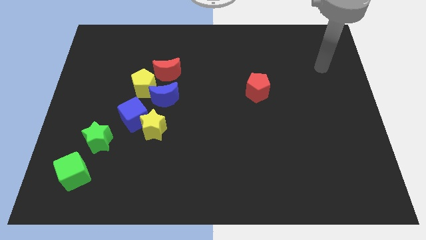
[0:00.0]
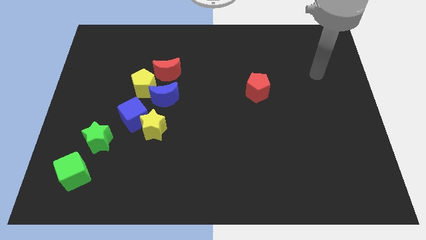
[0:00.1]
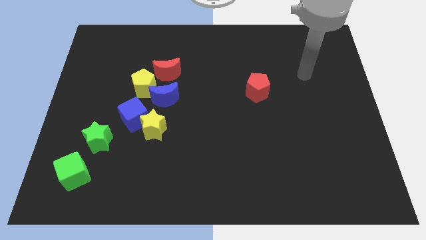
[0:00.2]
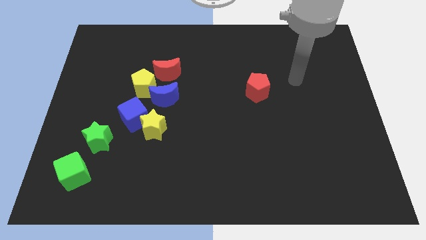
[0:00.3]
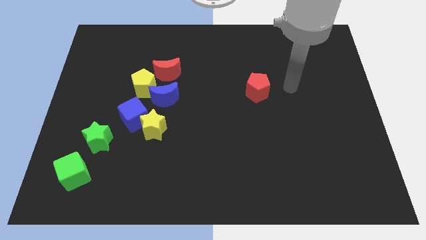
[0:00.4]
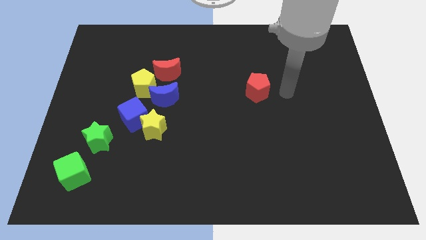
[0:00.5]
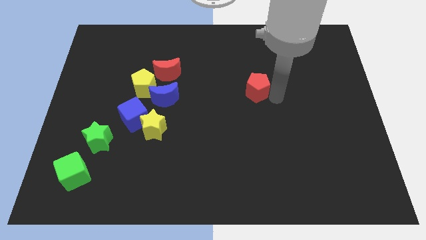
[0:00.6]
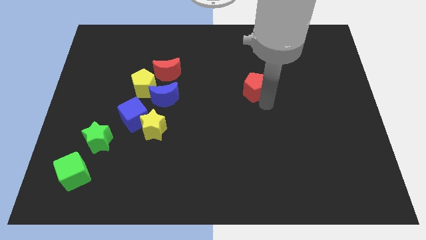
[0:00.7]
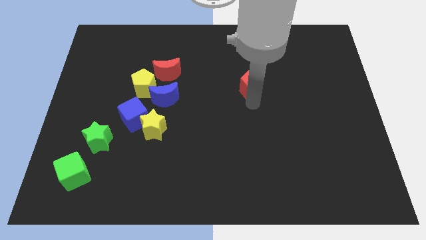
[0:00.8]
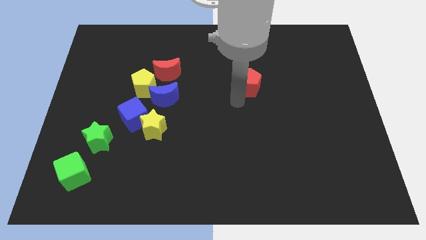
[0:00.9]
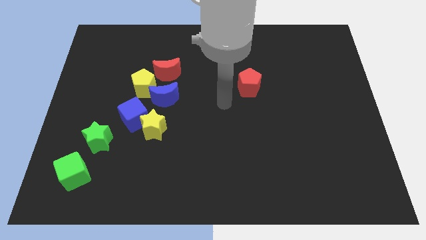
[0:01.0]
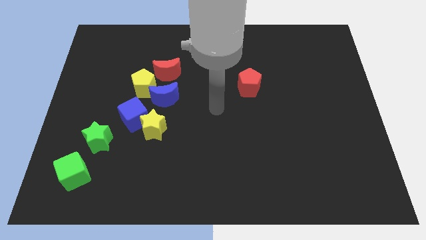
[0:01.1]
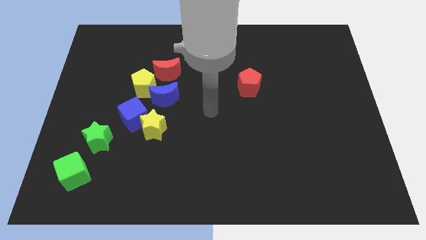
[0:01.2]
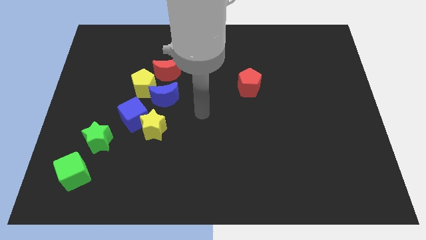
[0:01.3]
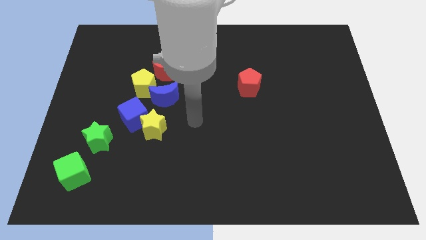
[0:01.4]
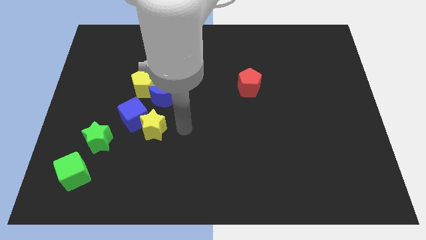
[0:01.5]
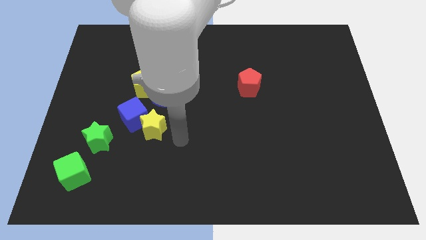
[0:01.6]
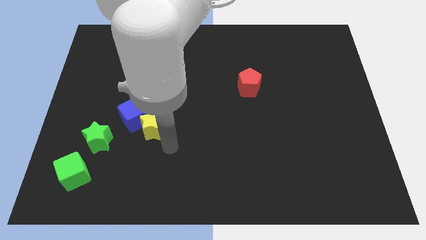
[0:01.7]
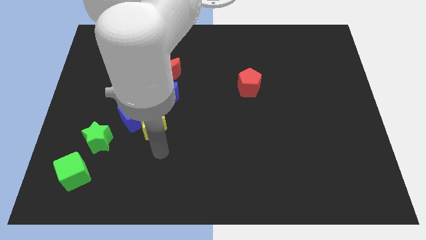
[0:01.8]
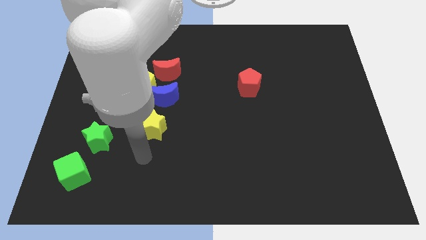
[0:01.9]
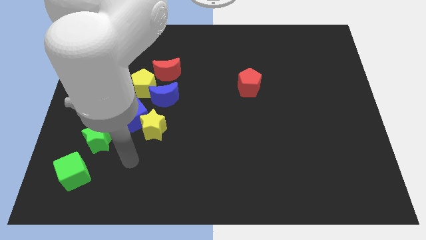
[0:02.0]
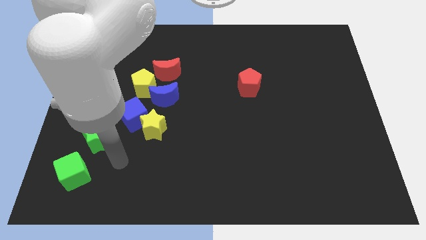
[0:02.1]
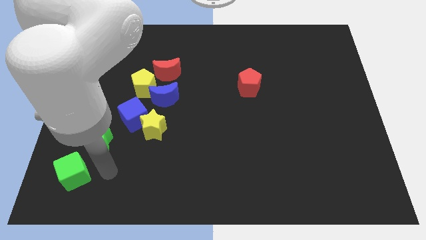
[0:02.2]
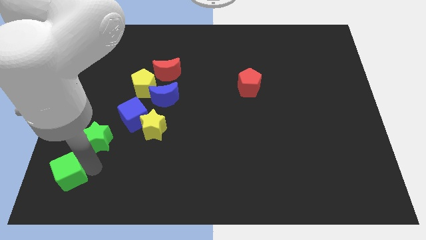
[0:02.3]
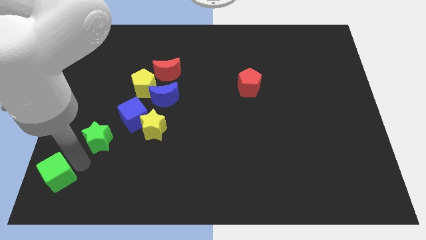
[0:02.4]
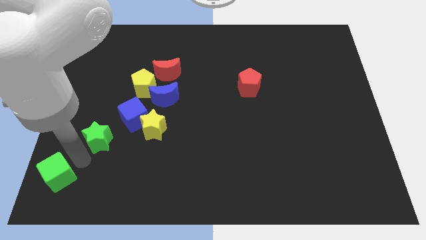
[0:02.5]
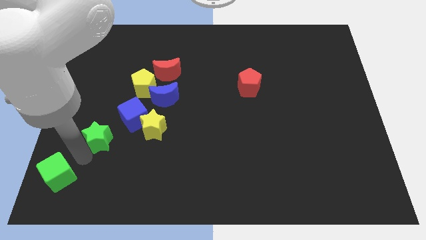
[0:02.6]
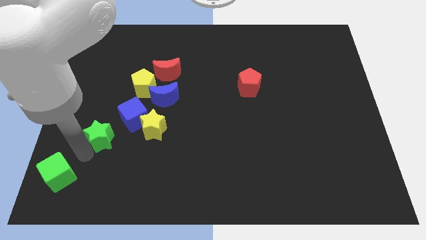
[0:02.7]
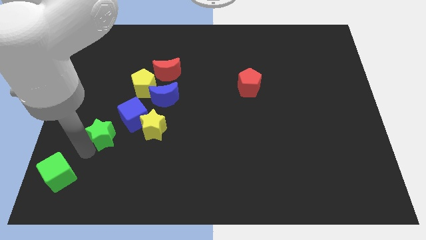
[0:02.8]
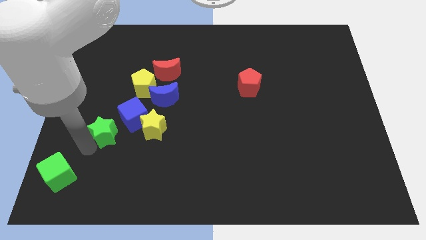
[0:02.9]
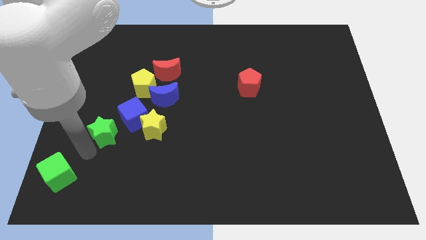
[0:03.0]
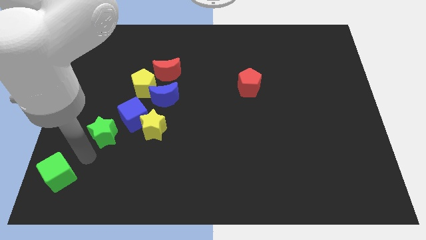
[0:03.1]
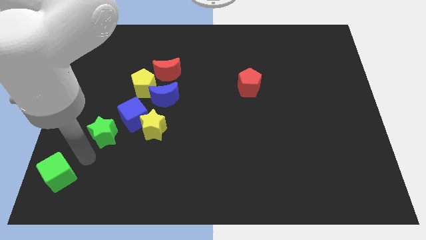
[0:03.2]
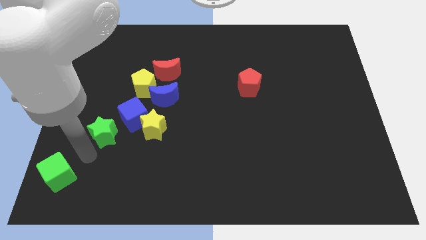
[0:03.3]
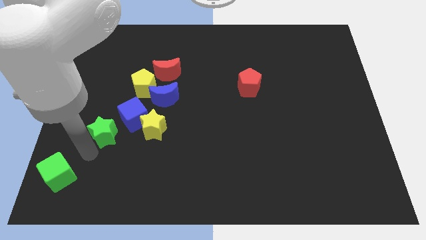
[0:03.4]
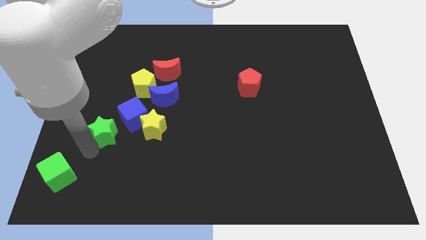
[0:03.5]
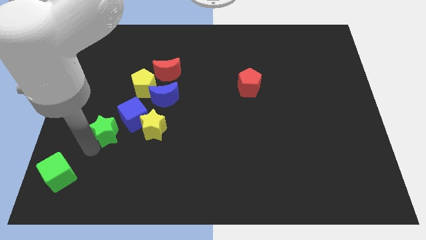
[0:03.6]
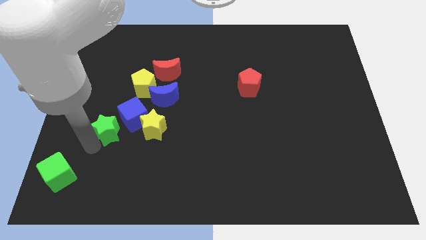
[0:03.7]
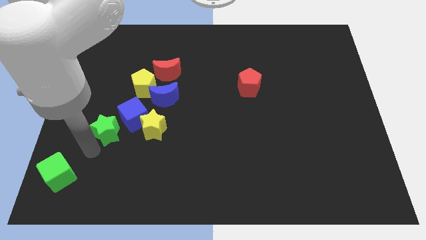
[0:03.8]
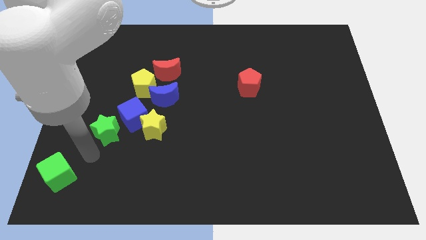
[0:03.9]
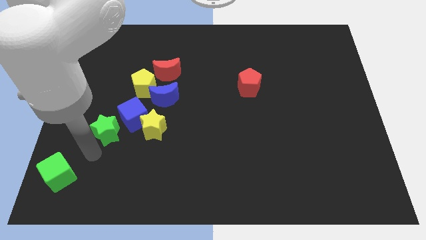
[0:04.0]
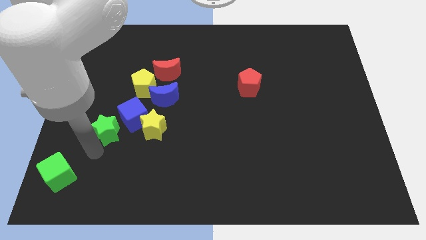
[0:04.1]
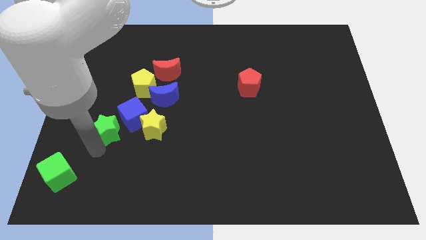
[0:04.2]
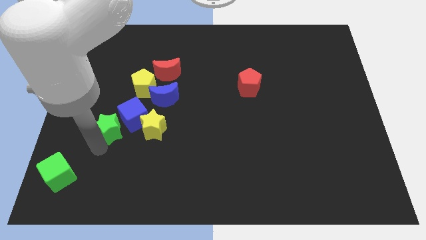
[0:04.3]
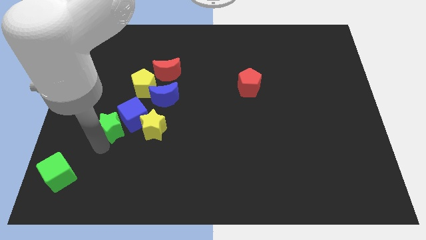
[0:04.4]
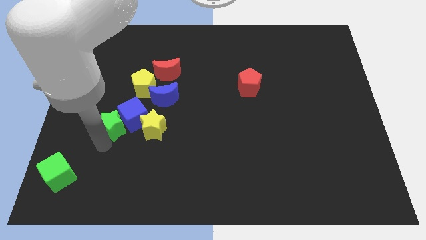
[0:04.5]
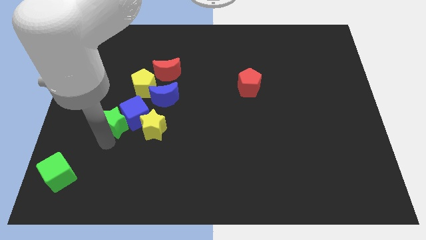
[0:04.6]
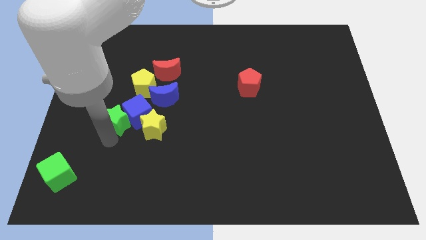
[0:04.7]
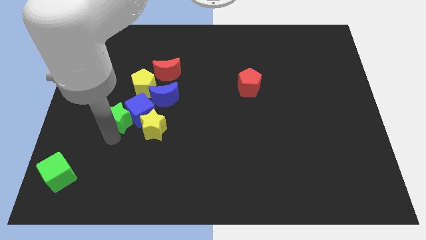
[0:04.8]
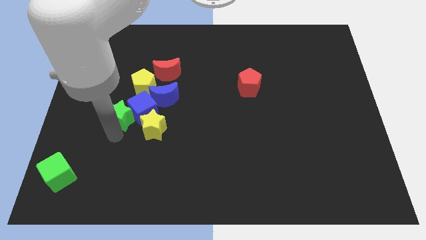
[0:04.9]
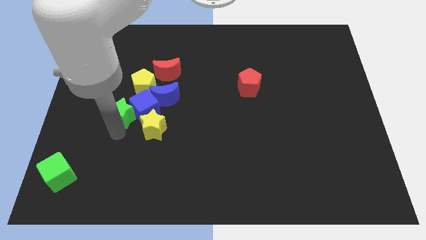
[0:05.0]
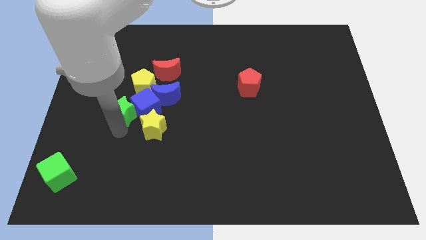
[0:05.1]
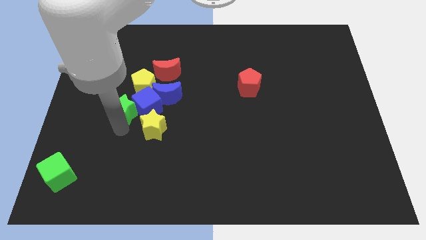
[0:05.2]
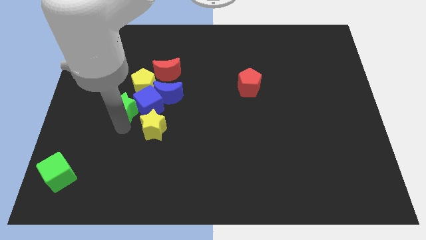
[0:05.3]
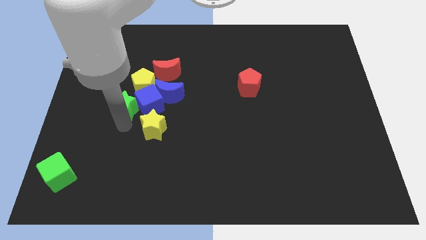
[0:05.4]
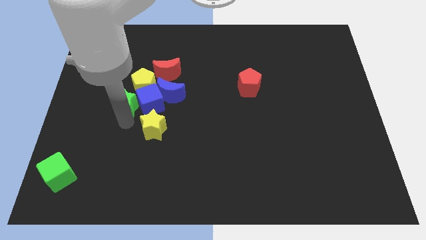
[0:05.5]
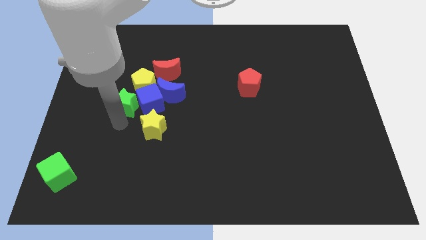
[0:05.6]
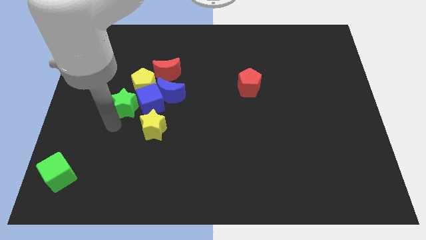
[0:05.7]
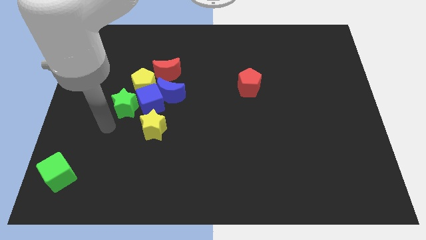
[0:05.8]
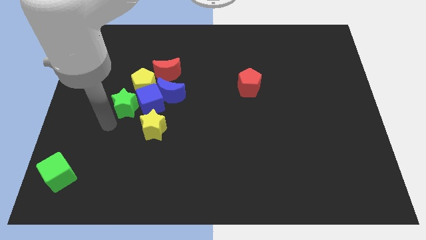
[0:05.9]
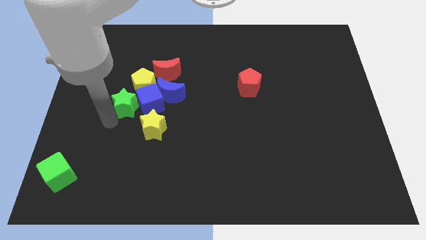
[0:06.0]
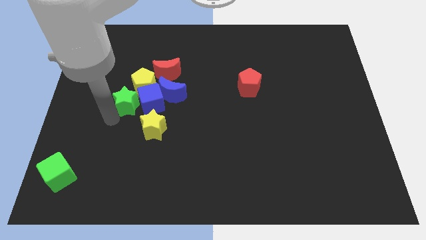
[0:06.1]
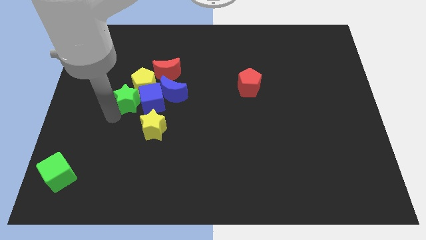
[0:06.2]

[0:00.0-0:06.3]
put the green star next to the yellow pentagon

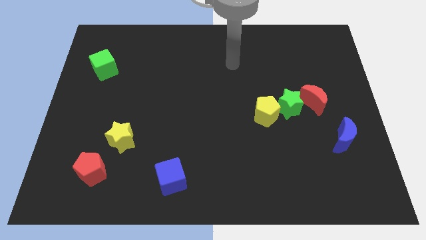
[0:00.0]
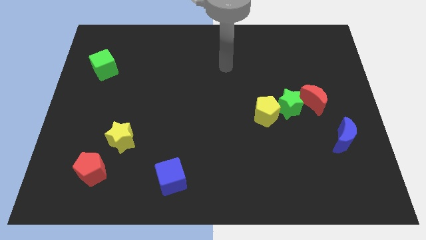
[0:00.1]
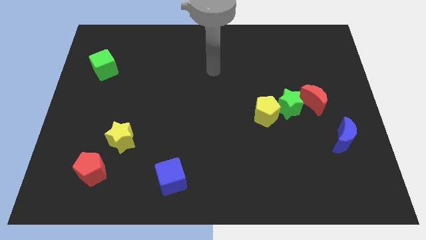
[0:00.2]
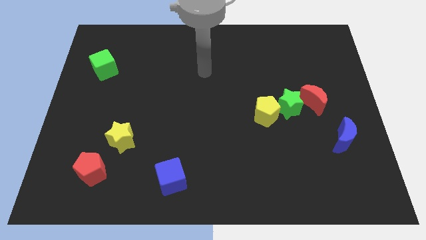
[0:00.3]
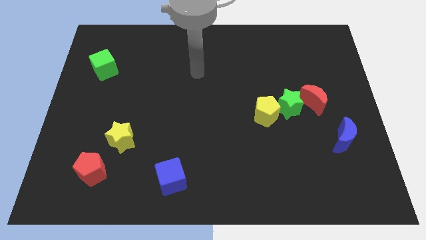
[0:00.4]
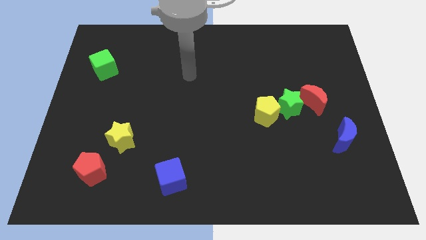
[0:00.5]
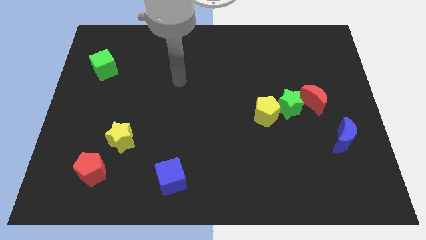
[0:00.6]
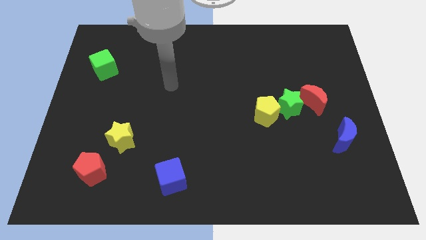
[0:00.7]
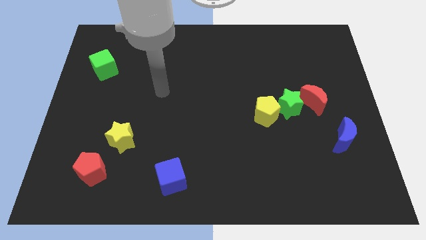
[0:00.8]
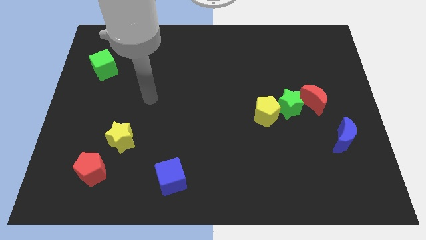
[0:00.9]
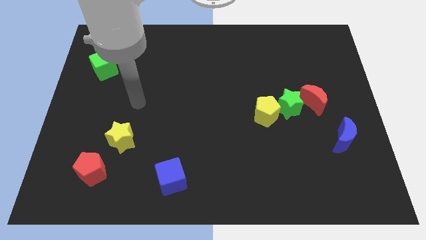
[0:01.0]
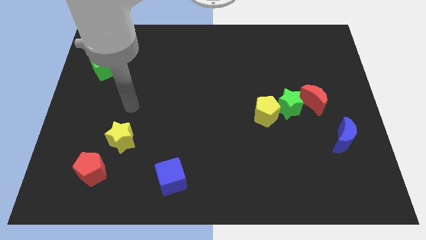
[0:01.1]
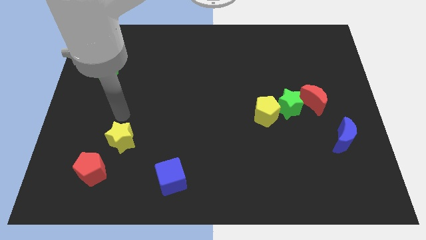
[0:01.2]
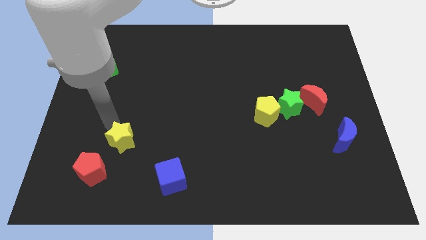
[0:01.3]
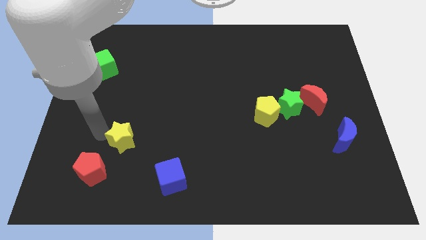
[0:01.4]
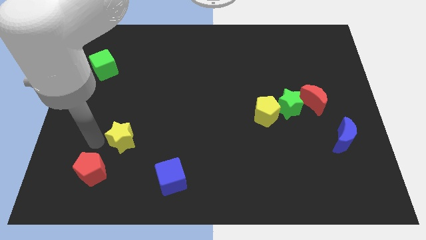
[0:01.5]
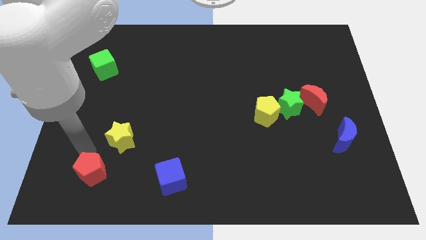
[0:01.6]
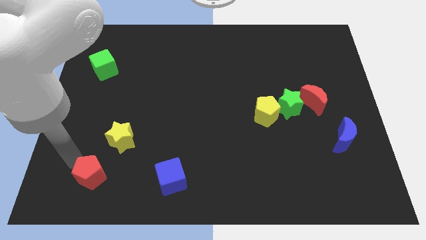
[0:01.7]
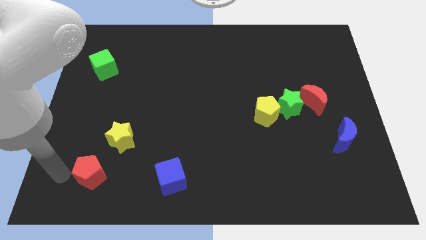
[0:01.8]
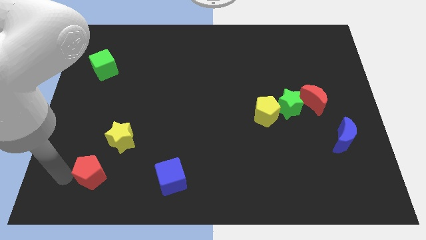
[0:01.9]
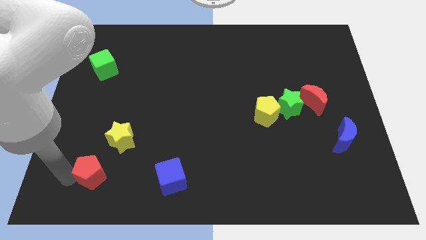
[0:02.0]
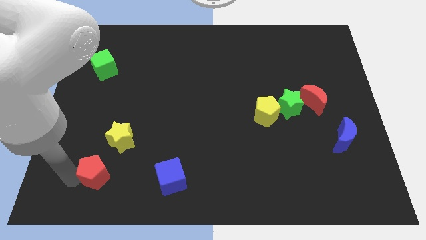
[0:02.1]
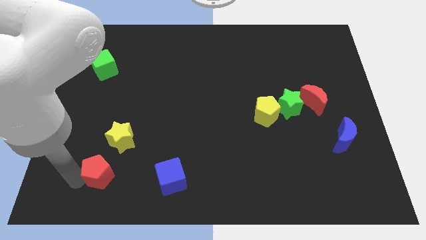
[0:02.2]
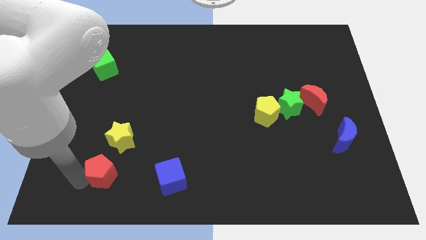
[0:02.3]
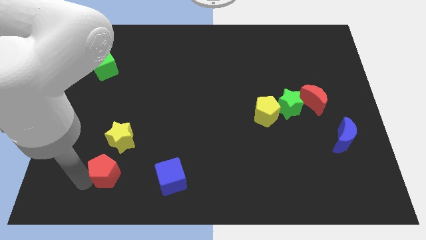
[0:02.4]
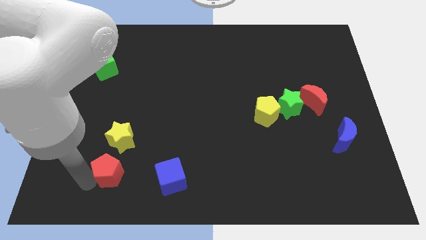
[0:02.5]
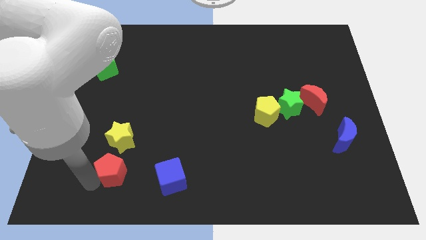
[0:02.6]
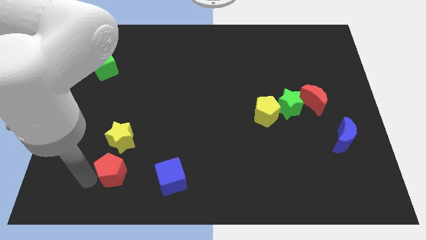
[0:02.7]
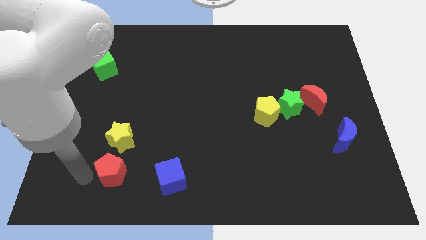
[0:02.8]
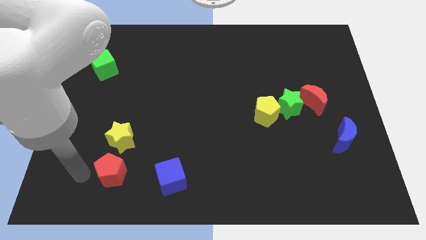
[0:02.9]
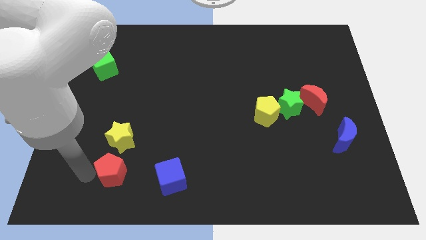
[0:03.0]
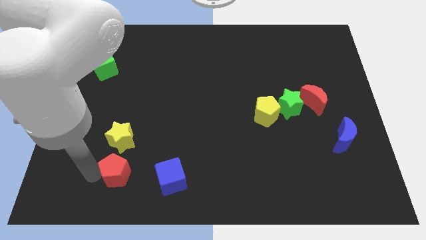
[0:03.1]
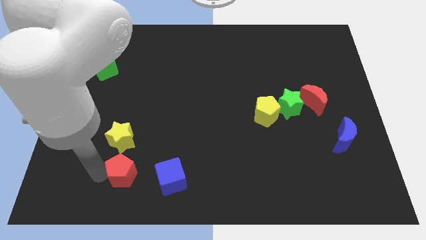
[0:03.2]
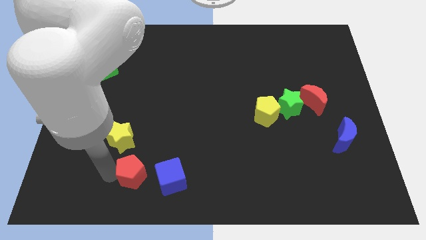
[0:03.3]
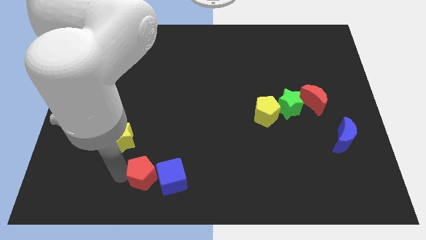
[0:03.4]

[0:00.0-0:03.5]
slide the red pentagon next to the blue cube
